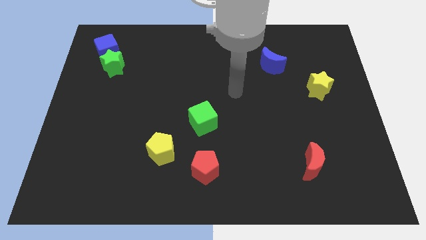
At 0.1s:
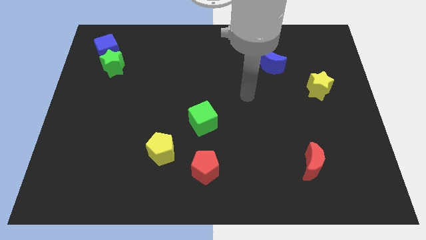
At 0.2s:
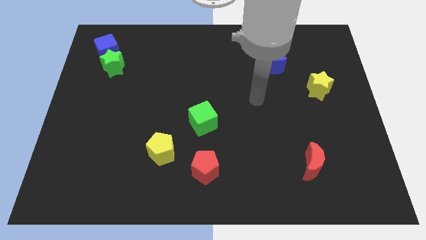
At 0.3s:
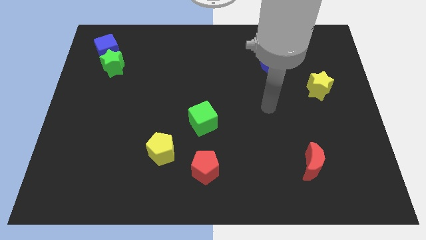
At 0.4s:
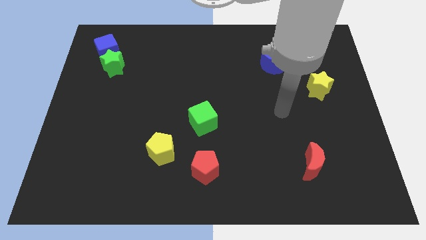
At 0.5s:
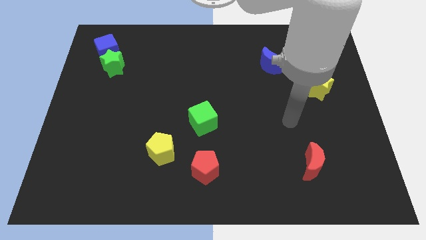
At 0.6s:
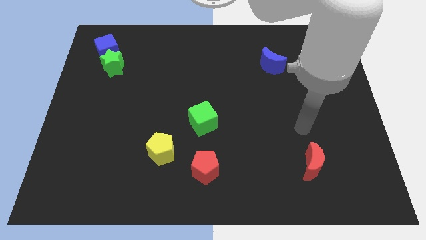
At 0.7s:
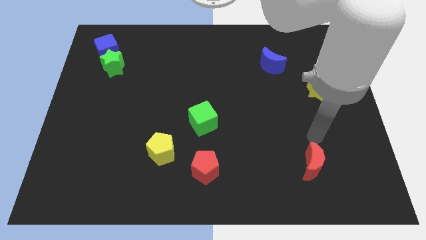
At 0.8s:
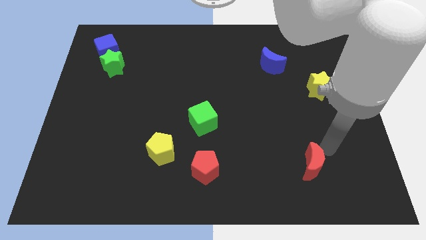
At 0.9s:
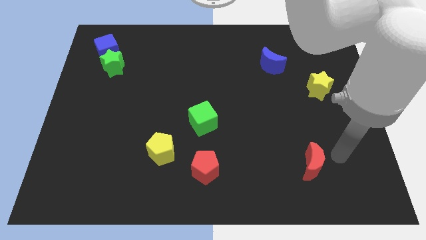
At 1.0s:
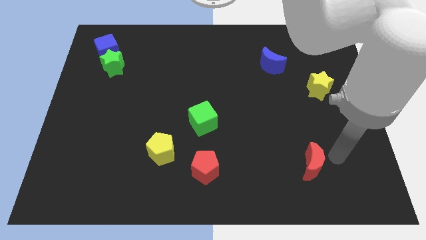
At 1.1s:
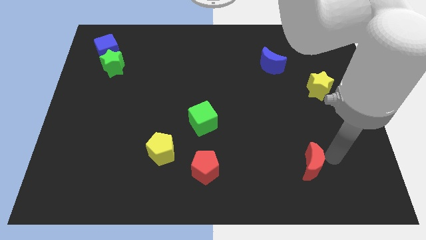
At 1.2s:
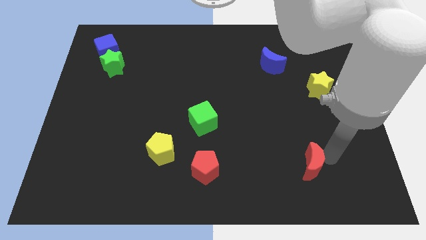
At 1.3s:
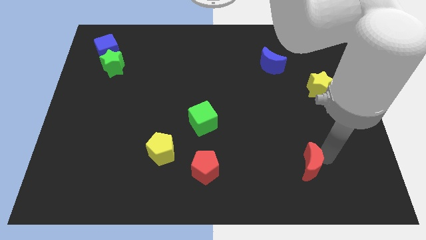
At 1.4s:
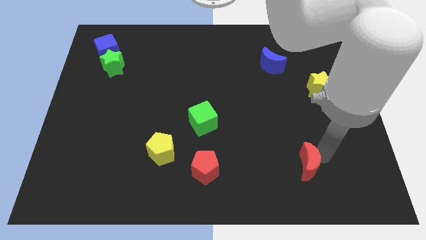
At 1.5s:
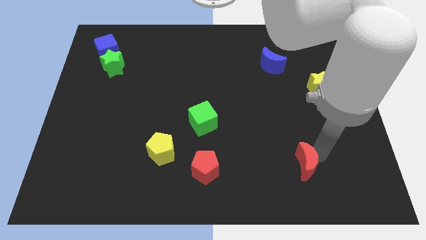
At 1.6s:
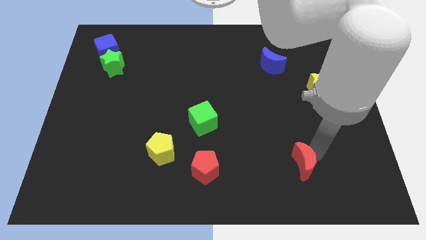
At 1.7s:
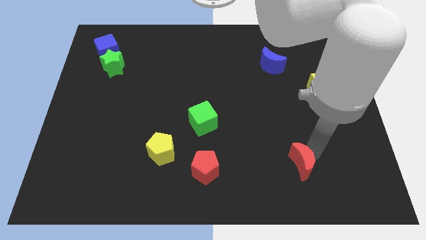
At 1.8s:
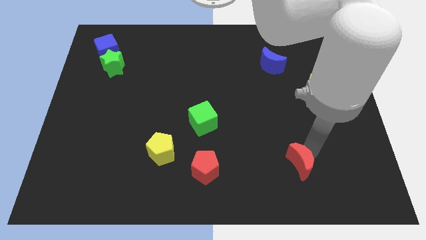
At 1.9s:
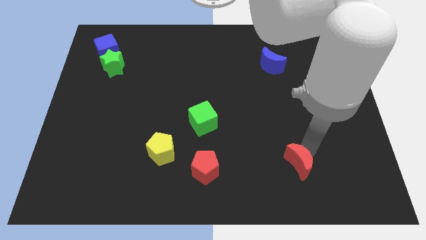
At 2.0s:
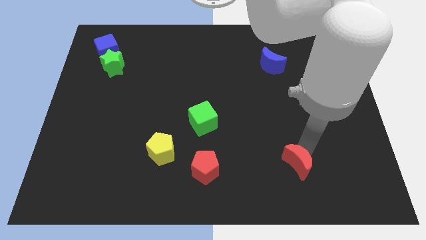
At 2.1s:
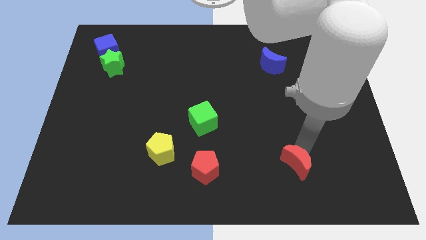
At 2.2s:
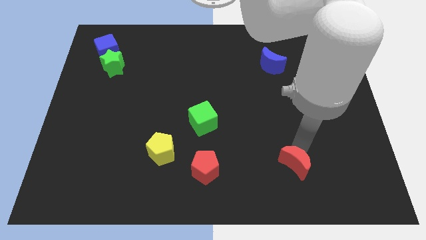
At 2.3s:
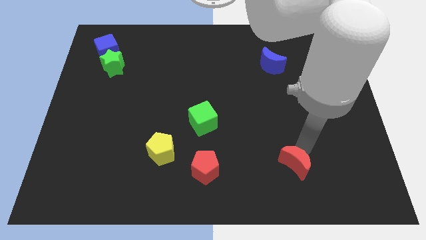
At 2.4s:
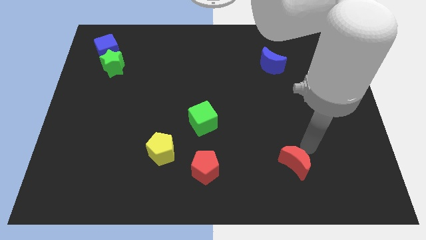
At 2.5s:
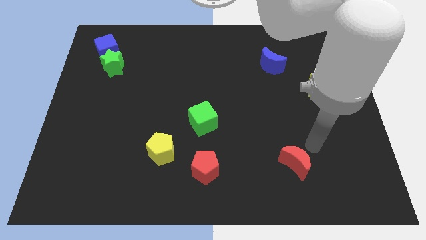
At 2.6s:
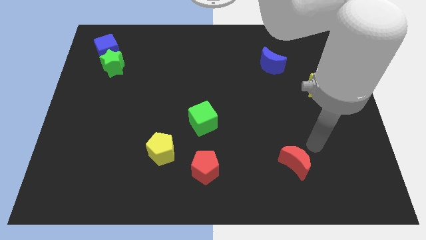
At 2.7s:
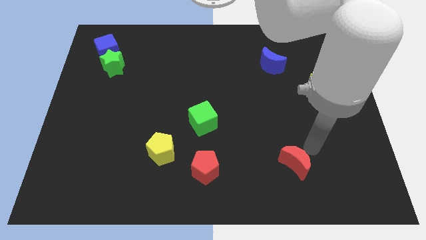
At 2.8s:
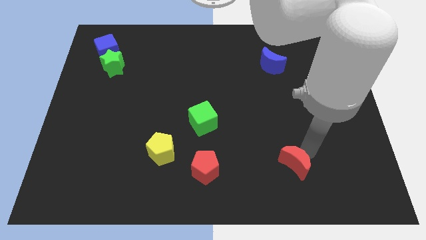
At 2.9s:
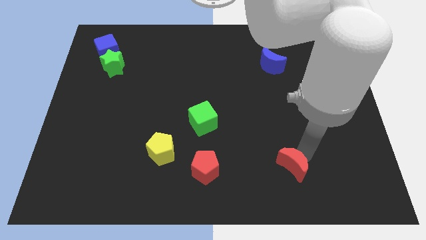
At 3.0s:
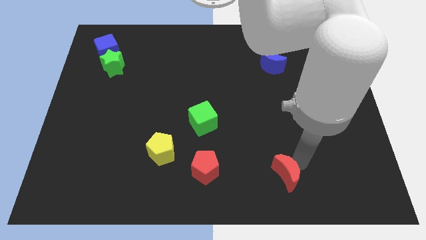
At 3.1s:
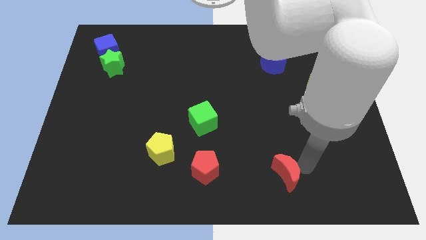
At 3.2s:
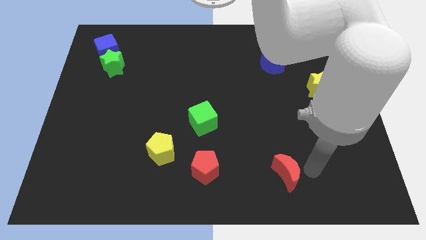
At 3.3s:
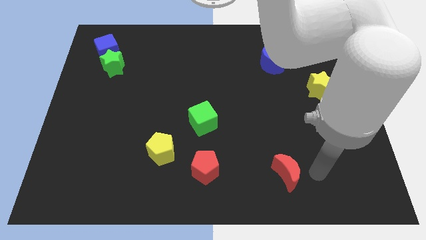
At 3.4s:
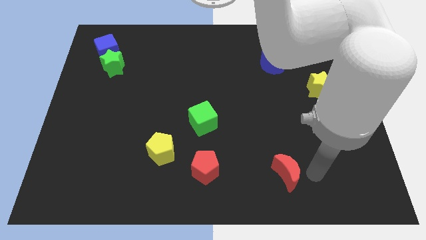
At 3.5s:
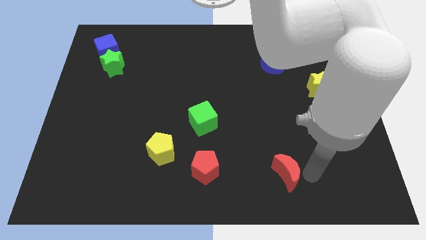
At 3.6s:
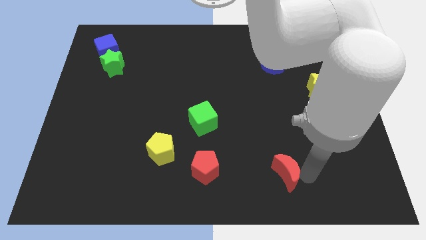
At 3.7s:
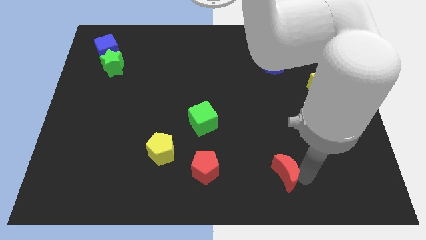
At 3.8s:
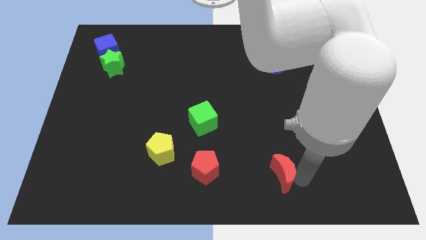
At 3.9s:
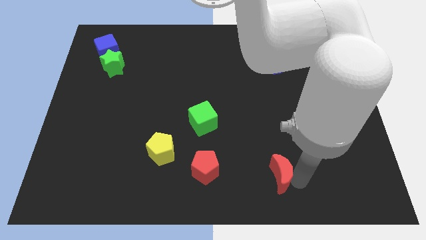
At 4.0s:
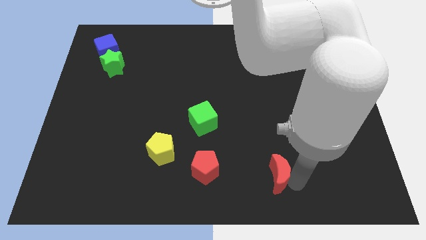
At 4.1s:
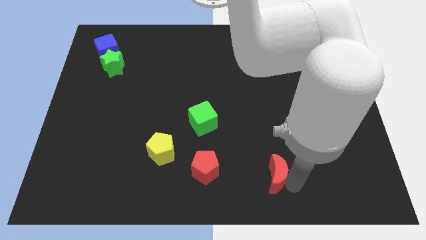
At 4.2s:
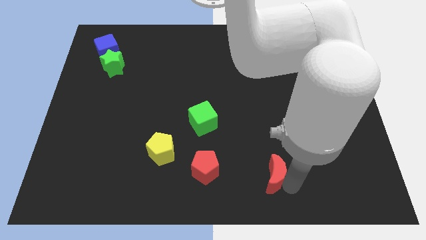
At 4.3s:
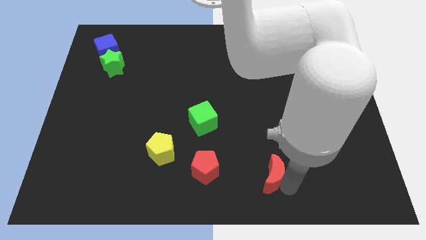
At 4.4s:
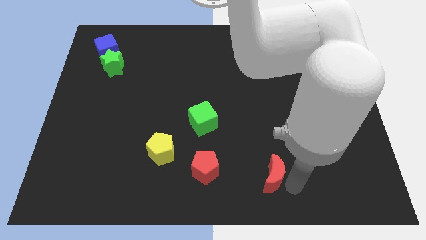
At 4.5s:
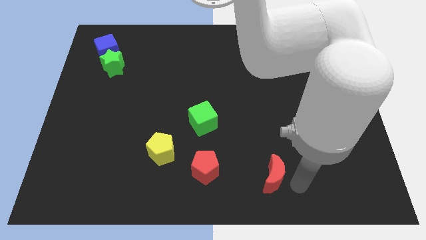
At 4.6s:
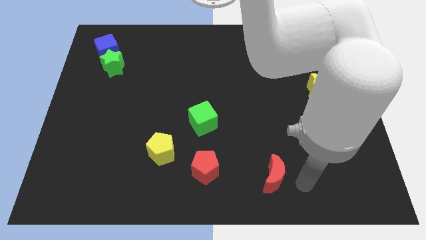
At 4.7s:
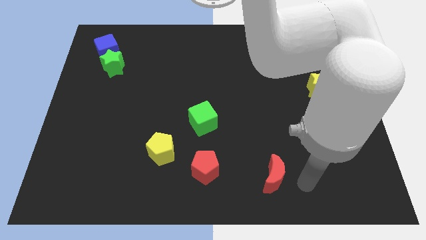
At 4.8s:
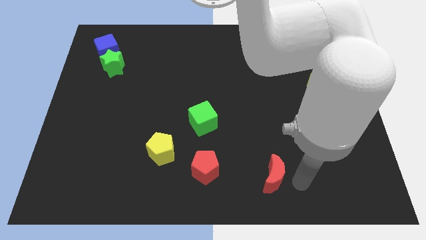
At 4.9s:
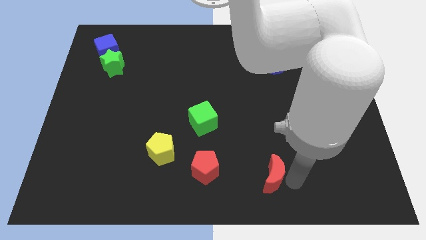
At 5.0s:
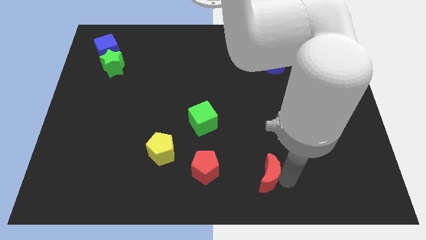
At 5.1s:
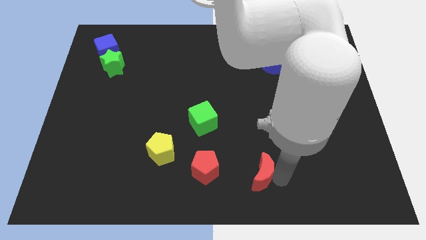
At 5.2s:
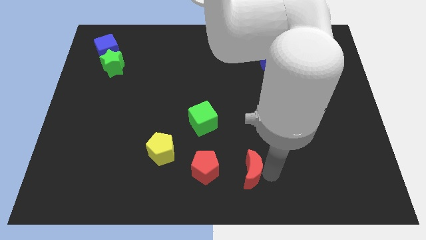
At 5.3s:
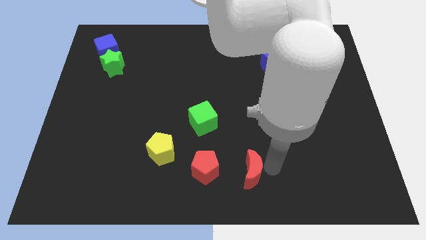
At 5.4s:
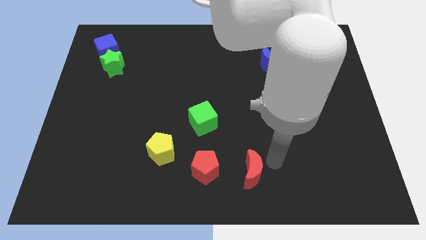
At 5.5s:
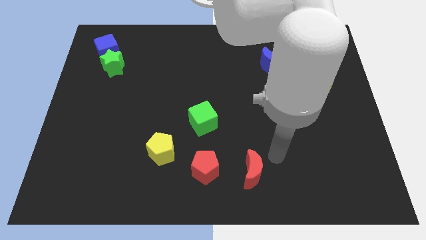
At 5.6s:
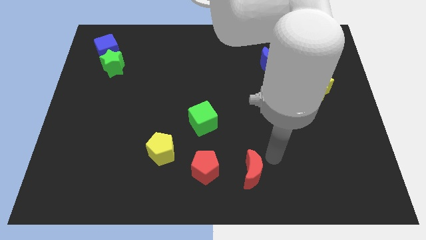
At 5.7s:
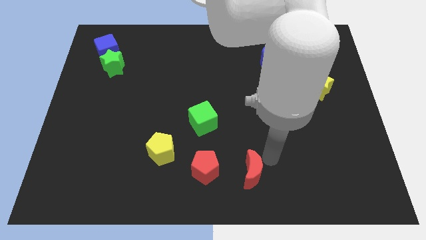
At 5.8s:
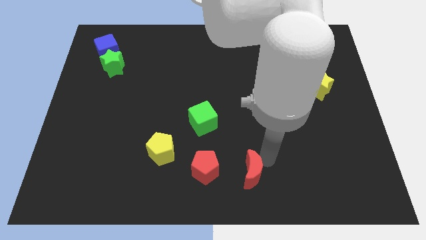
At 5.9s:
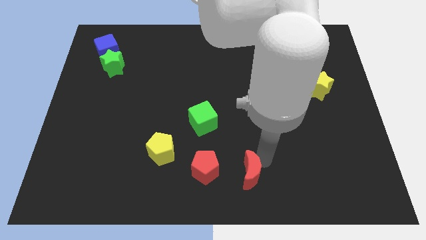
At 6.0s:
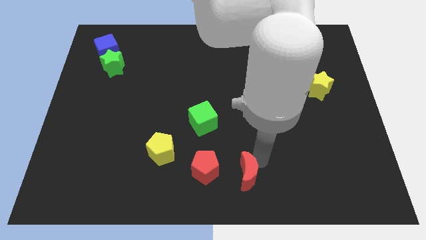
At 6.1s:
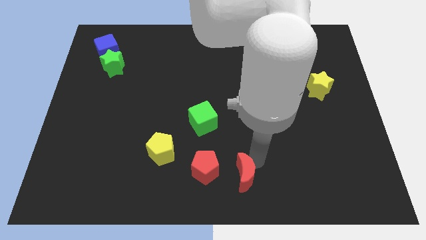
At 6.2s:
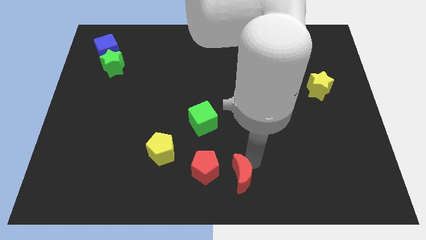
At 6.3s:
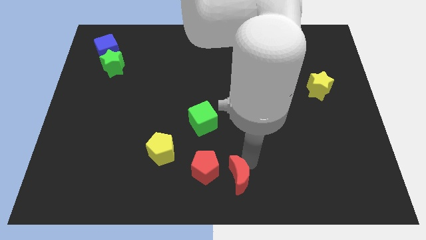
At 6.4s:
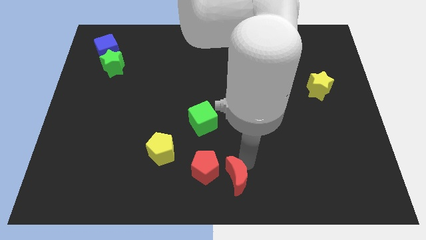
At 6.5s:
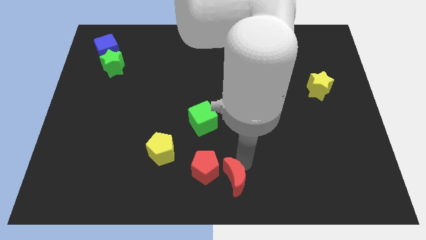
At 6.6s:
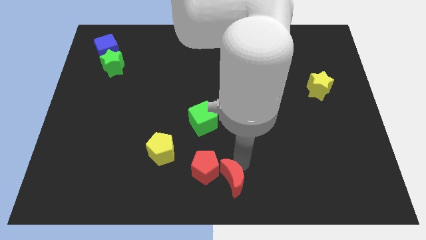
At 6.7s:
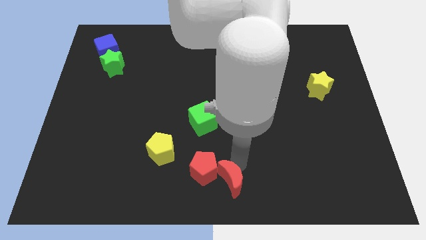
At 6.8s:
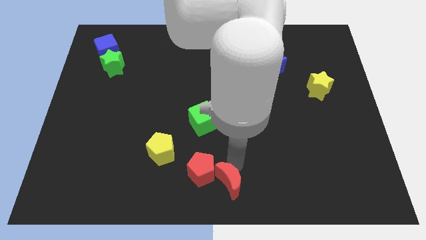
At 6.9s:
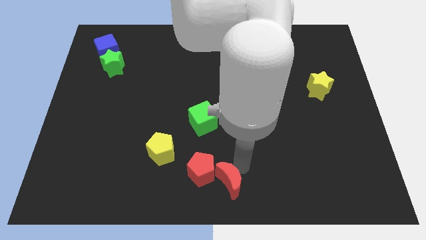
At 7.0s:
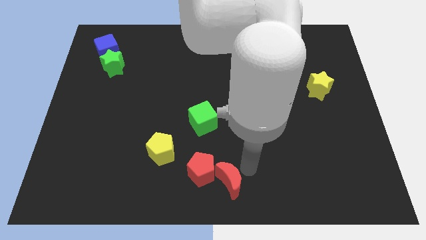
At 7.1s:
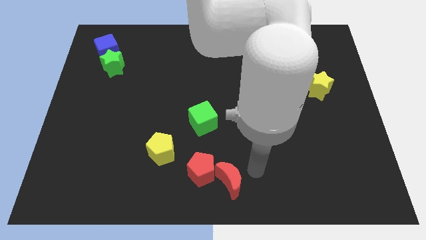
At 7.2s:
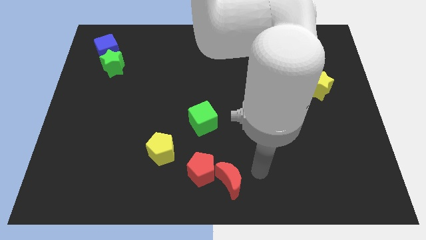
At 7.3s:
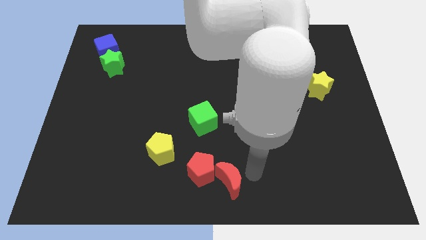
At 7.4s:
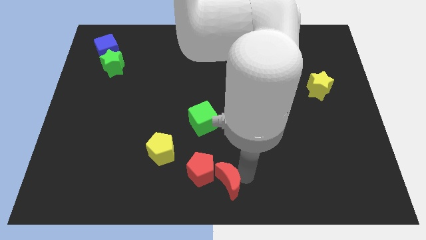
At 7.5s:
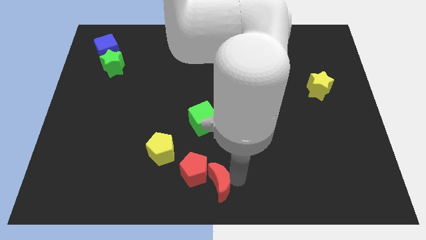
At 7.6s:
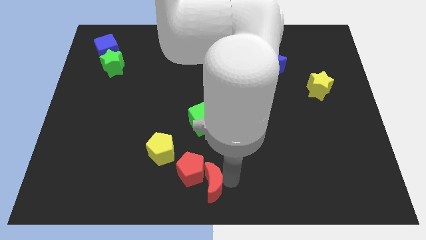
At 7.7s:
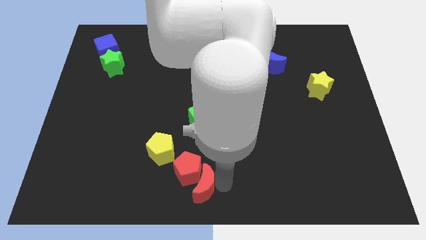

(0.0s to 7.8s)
put the red moon diagonally down and to the right of the yellow pentagon

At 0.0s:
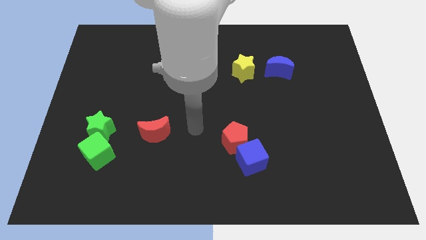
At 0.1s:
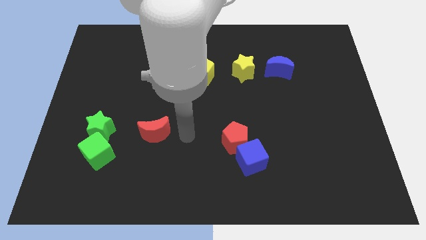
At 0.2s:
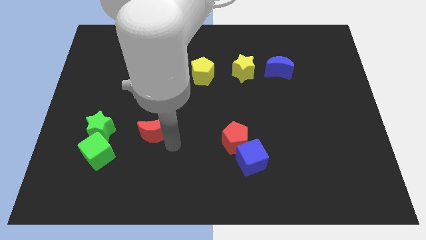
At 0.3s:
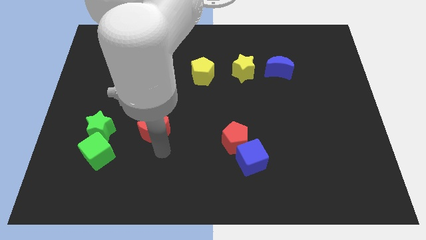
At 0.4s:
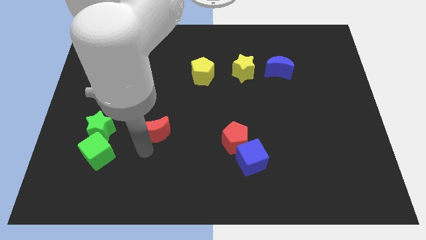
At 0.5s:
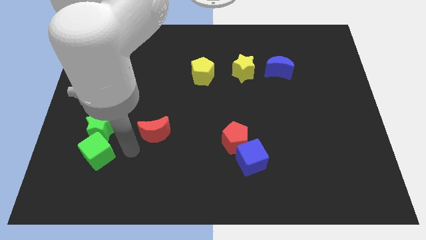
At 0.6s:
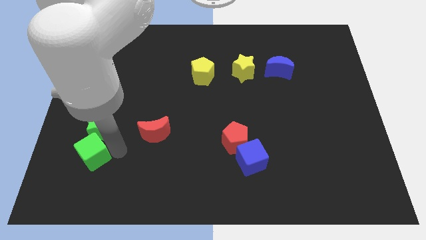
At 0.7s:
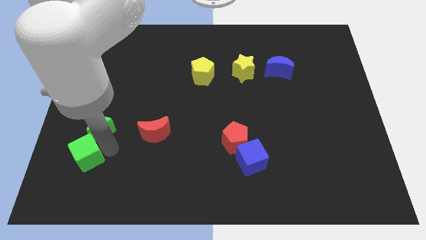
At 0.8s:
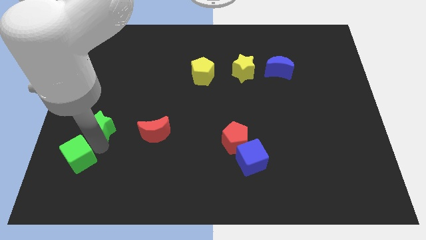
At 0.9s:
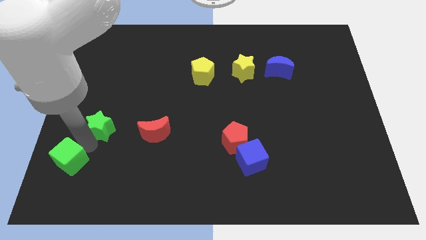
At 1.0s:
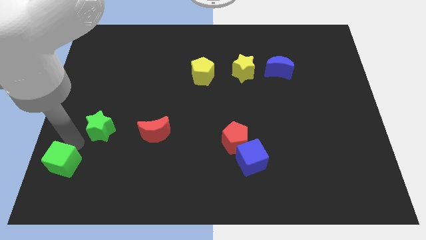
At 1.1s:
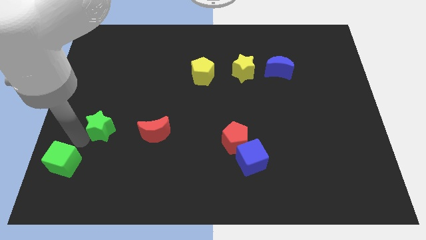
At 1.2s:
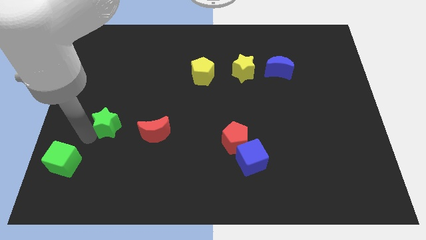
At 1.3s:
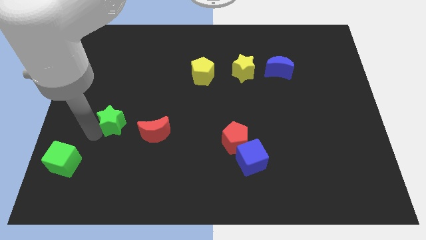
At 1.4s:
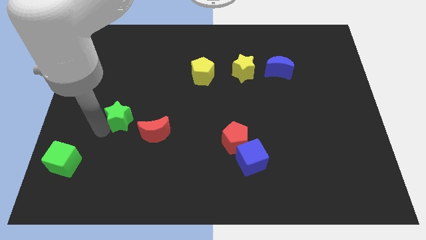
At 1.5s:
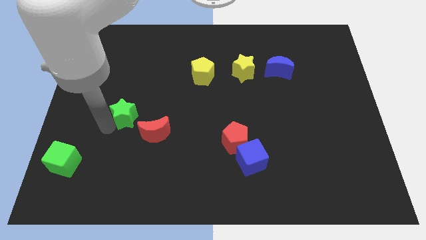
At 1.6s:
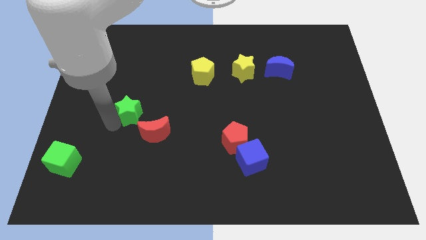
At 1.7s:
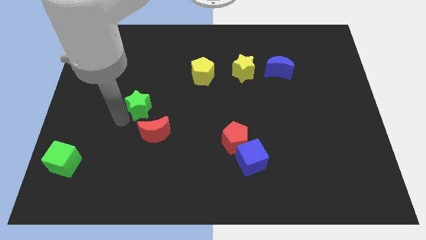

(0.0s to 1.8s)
put the green star to the top side of the red moon
